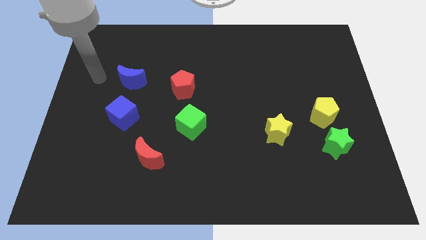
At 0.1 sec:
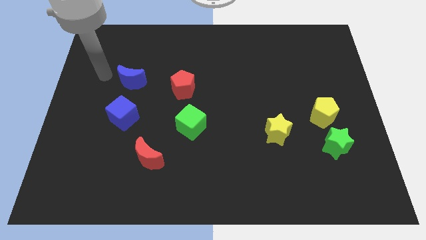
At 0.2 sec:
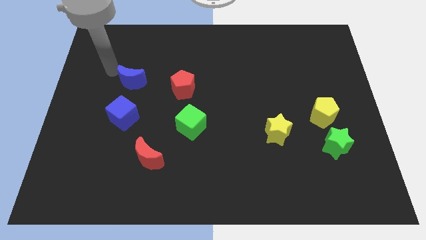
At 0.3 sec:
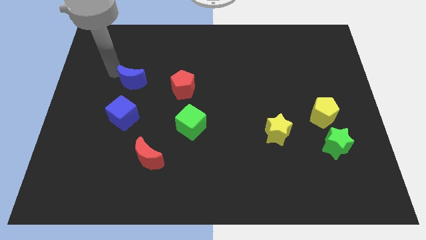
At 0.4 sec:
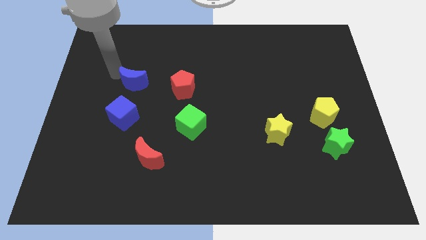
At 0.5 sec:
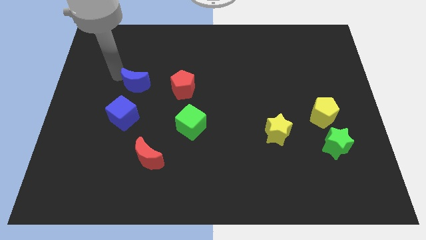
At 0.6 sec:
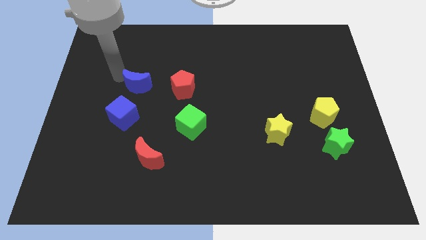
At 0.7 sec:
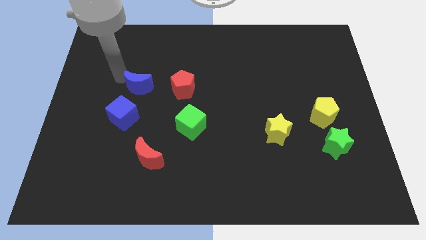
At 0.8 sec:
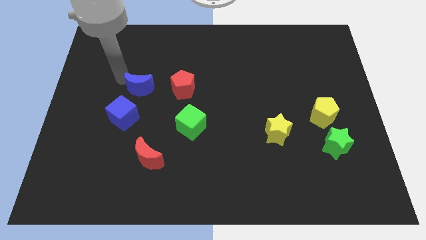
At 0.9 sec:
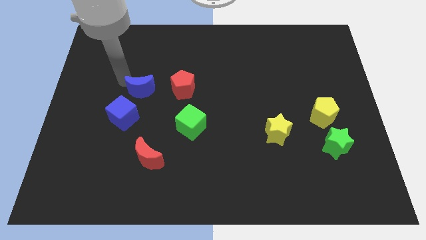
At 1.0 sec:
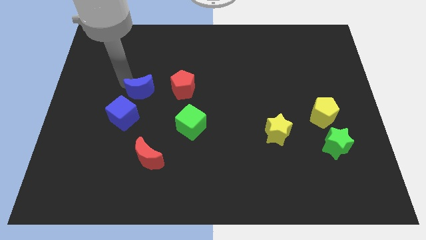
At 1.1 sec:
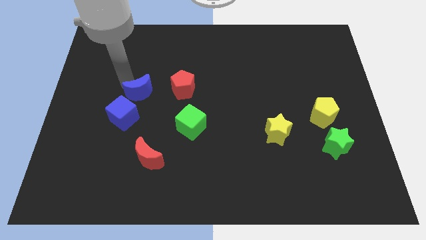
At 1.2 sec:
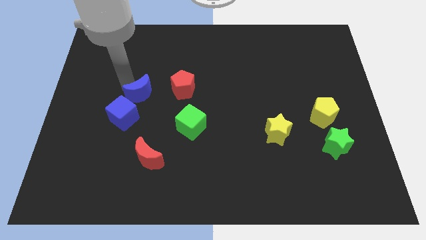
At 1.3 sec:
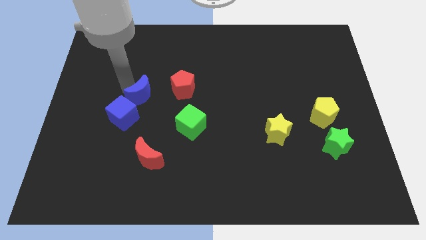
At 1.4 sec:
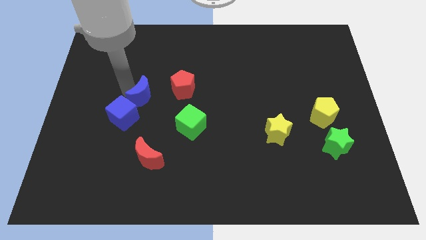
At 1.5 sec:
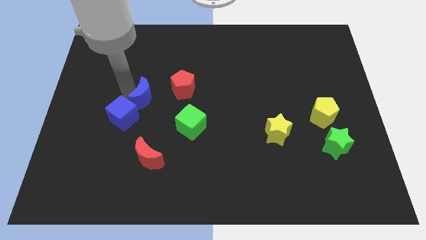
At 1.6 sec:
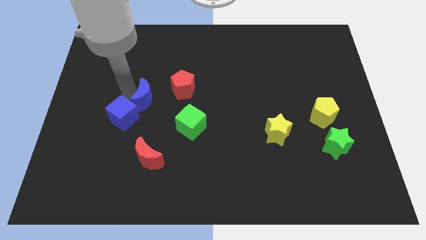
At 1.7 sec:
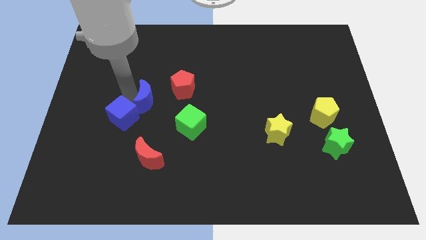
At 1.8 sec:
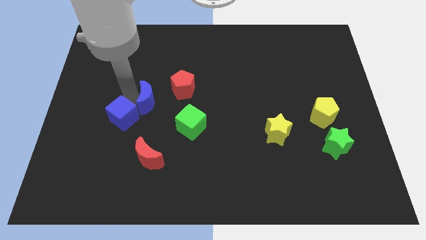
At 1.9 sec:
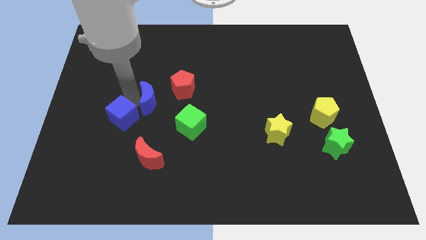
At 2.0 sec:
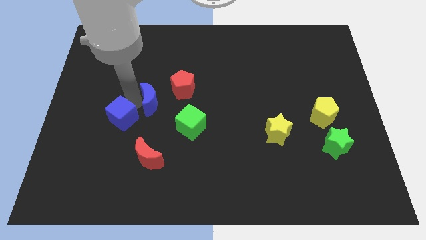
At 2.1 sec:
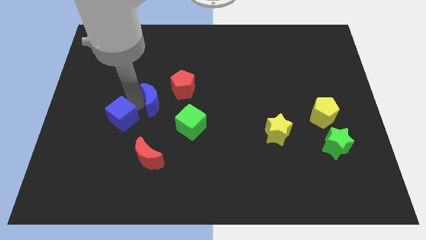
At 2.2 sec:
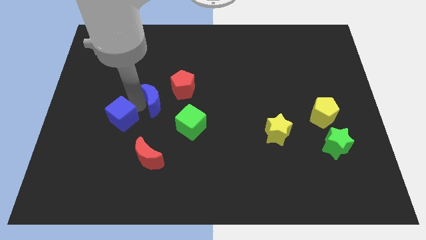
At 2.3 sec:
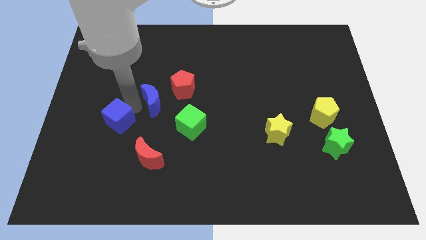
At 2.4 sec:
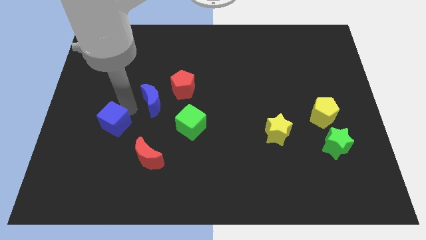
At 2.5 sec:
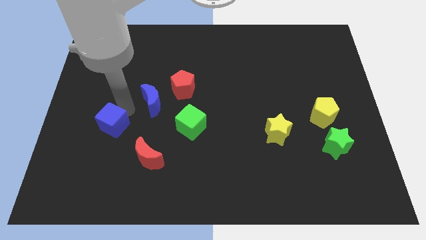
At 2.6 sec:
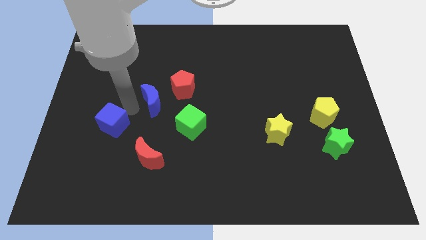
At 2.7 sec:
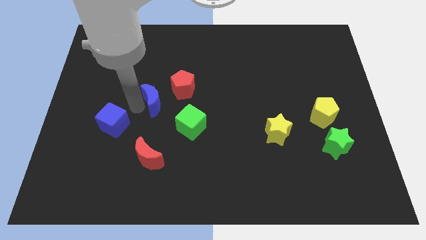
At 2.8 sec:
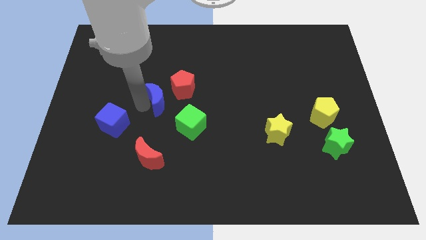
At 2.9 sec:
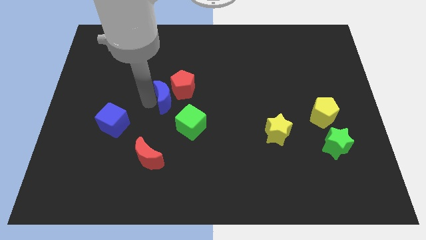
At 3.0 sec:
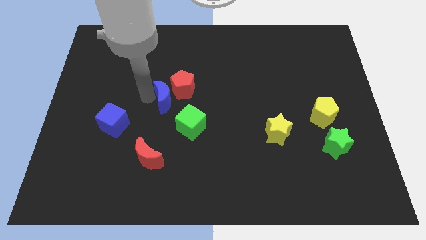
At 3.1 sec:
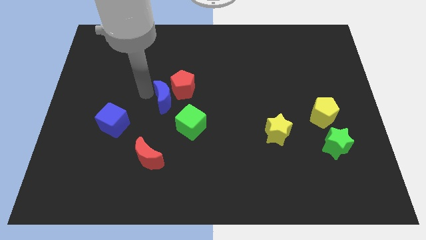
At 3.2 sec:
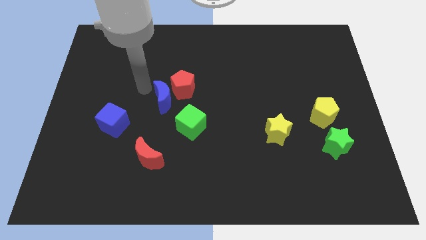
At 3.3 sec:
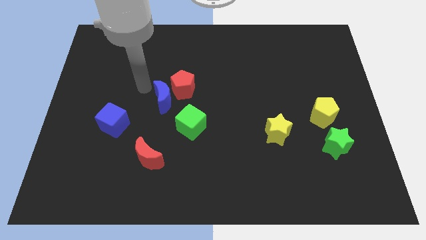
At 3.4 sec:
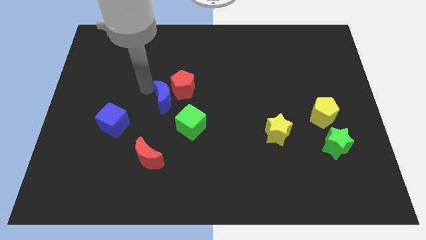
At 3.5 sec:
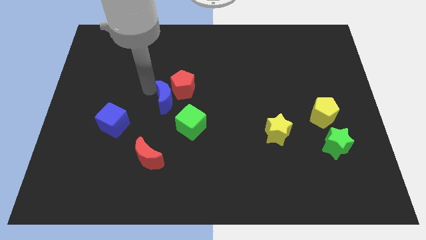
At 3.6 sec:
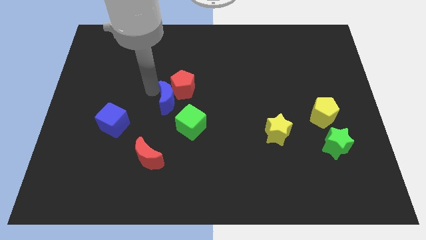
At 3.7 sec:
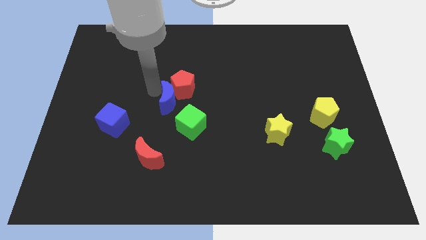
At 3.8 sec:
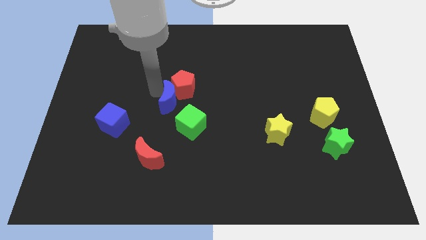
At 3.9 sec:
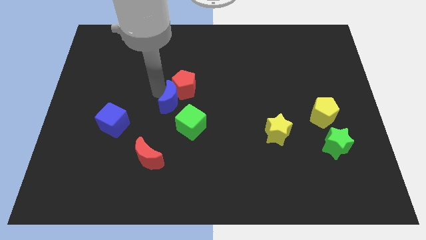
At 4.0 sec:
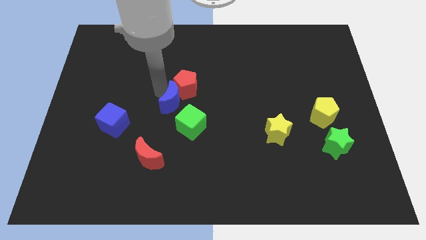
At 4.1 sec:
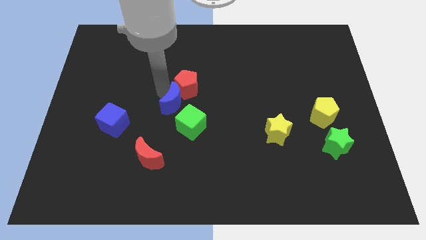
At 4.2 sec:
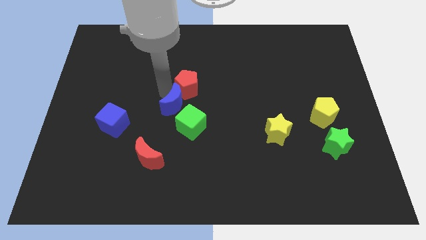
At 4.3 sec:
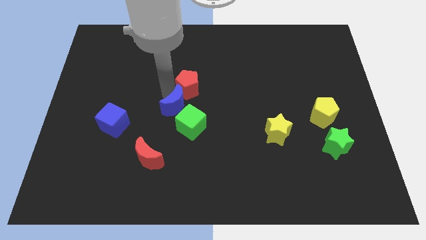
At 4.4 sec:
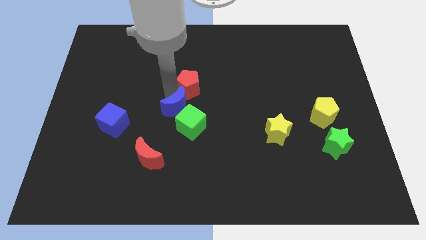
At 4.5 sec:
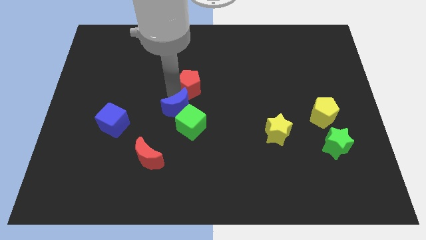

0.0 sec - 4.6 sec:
put the blue moon towards the green cube

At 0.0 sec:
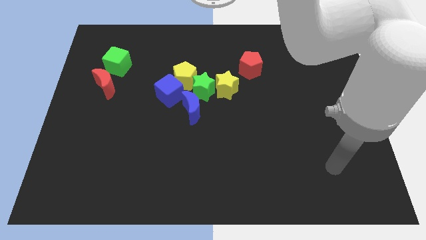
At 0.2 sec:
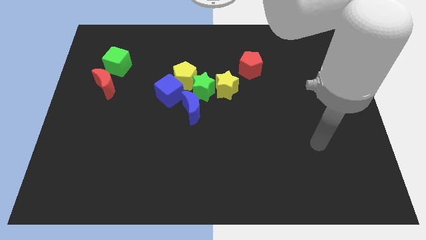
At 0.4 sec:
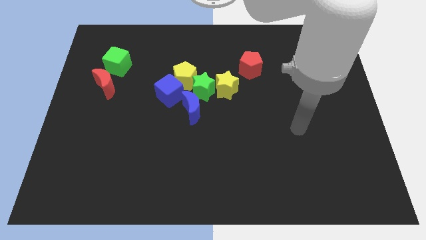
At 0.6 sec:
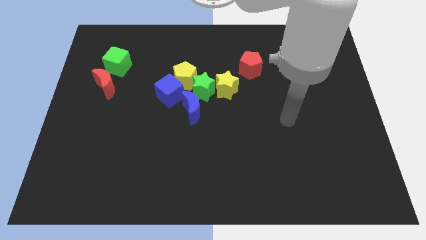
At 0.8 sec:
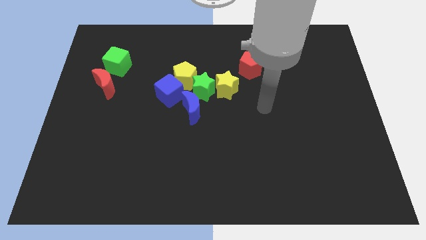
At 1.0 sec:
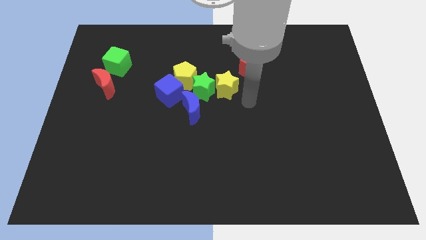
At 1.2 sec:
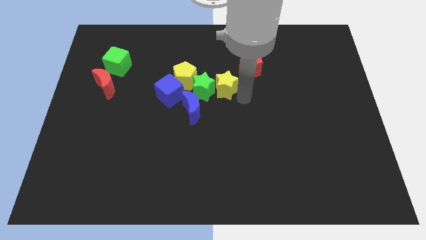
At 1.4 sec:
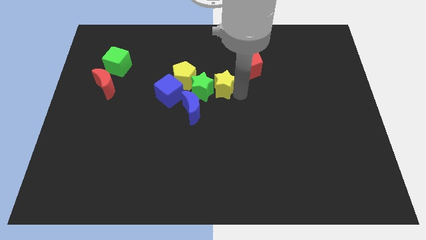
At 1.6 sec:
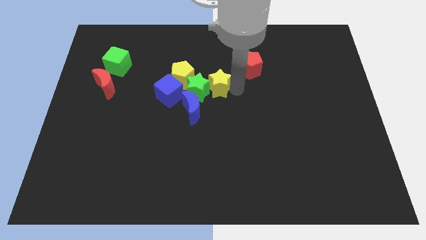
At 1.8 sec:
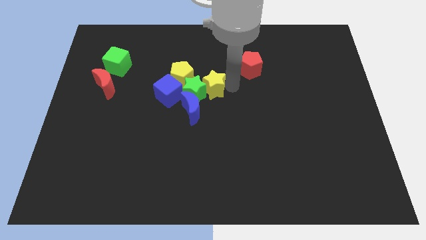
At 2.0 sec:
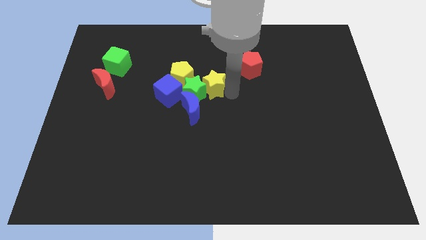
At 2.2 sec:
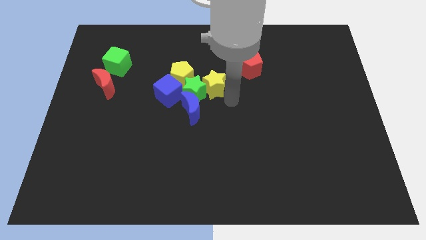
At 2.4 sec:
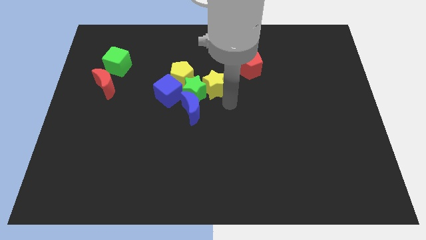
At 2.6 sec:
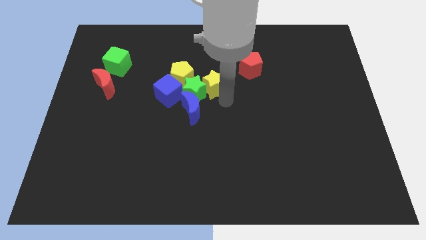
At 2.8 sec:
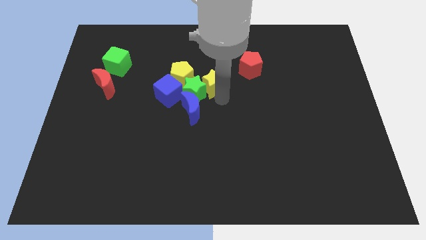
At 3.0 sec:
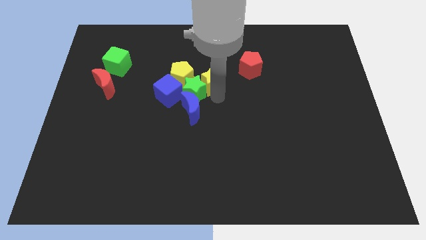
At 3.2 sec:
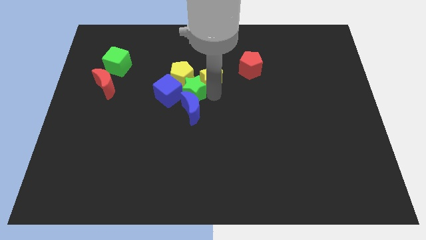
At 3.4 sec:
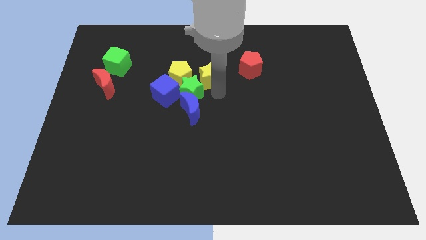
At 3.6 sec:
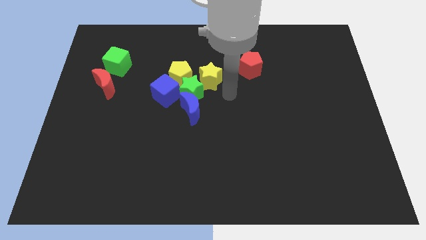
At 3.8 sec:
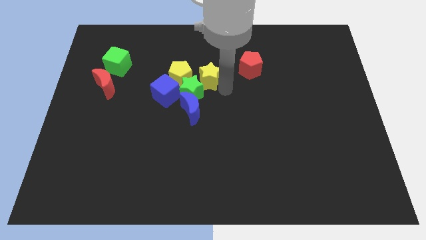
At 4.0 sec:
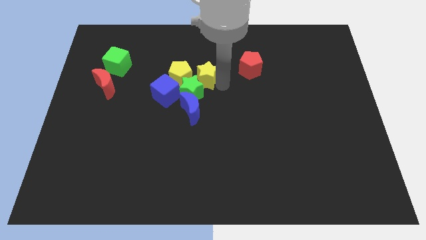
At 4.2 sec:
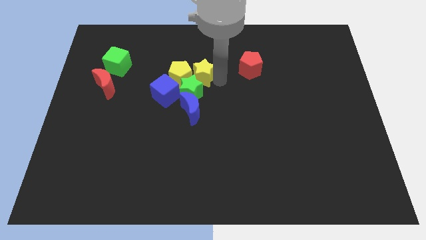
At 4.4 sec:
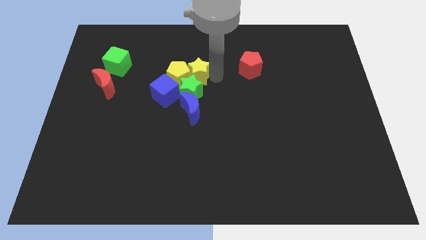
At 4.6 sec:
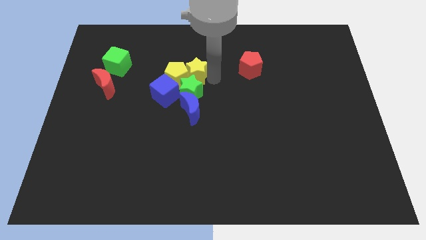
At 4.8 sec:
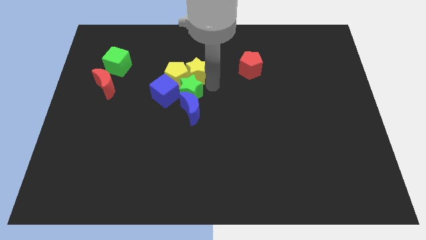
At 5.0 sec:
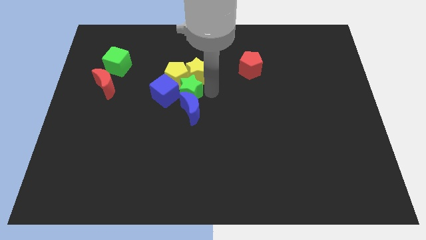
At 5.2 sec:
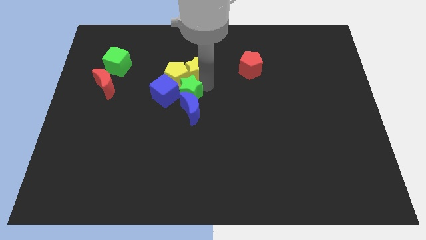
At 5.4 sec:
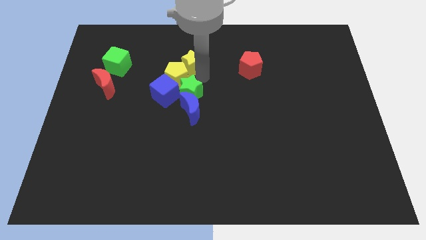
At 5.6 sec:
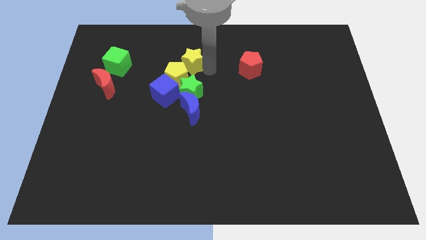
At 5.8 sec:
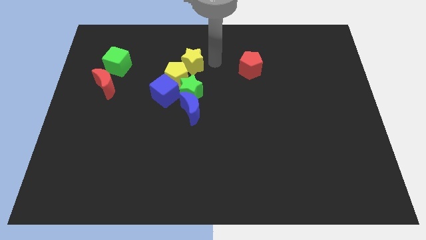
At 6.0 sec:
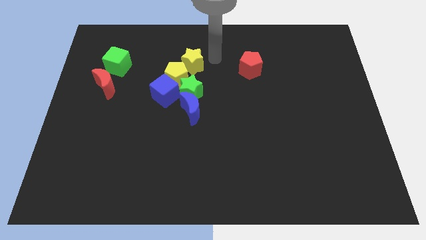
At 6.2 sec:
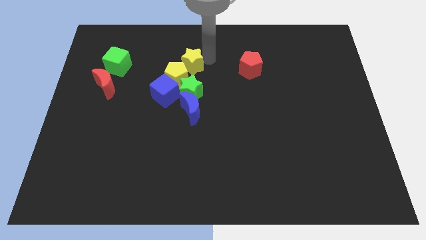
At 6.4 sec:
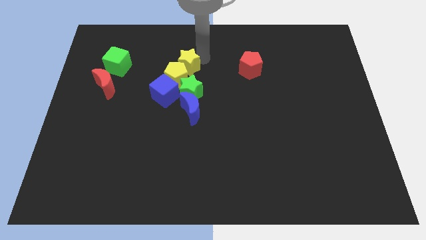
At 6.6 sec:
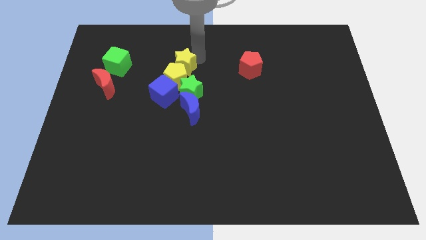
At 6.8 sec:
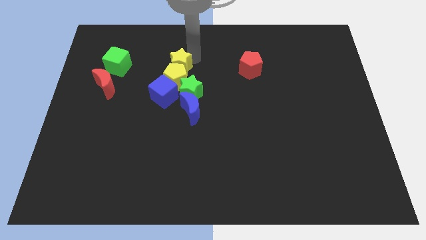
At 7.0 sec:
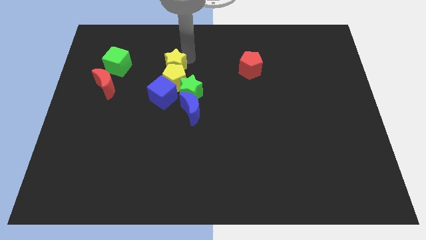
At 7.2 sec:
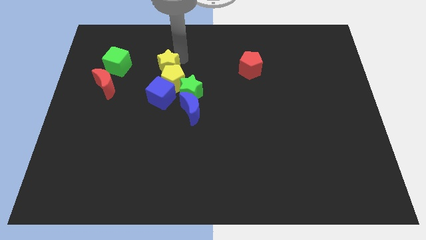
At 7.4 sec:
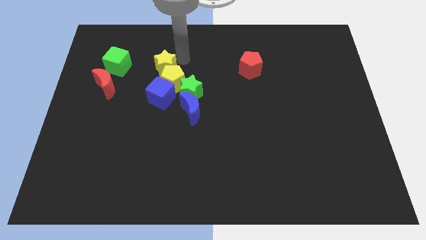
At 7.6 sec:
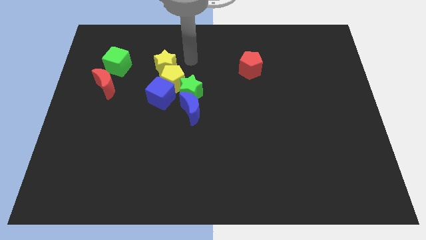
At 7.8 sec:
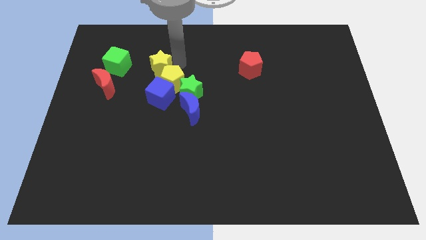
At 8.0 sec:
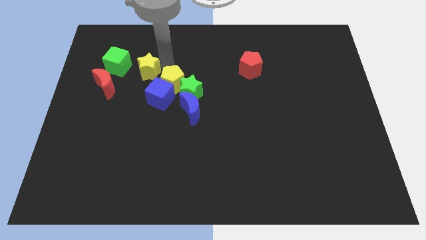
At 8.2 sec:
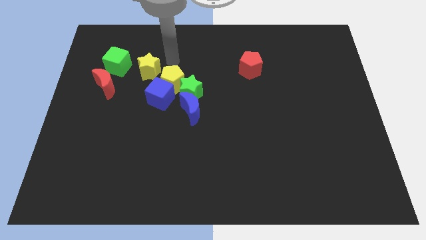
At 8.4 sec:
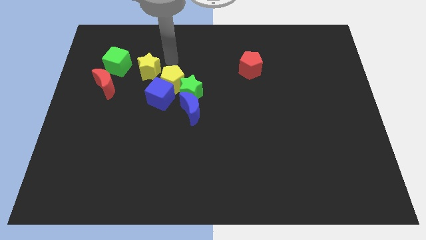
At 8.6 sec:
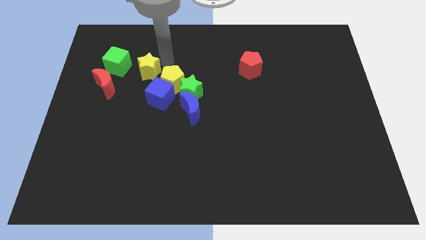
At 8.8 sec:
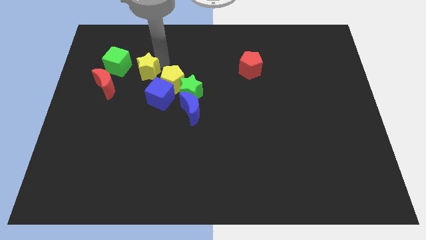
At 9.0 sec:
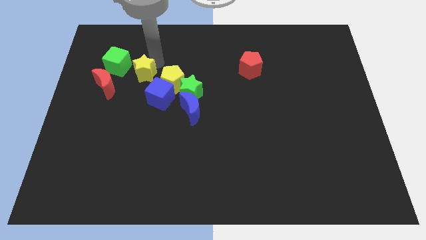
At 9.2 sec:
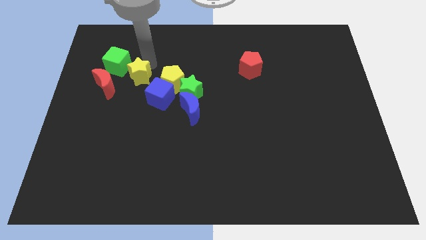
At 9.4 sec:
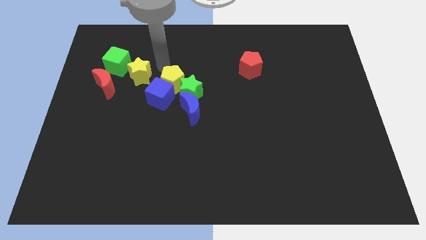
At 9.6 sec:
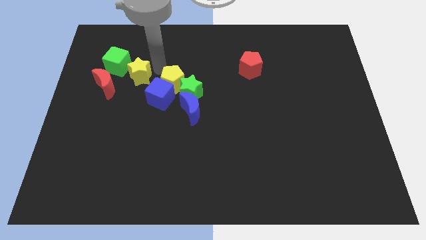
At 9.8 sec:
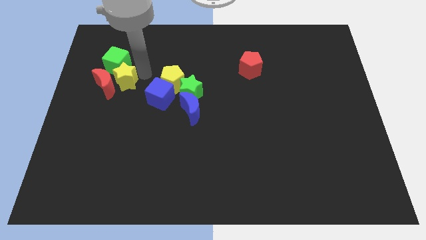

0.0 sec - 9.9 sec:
slide the yellow star close to the red moon
